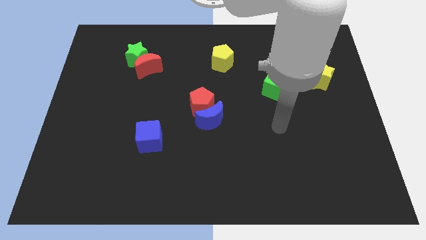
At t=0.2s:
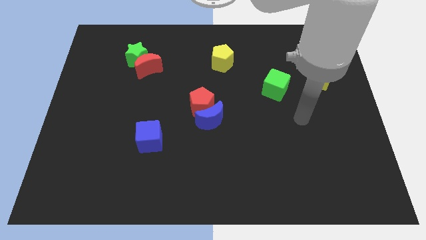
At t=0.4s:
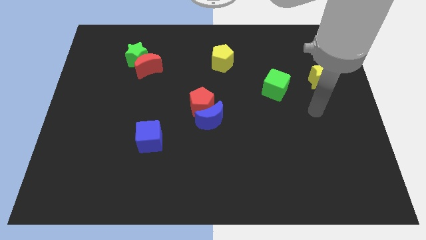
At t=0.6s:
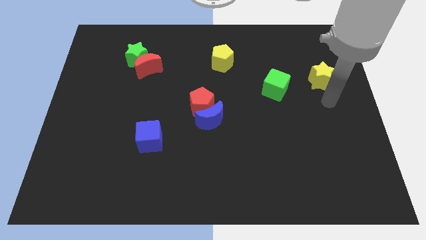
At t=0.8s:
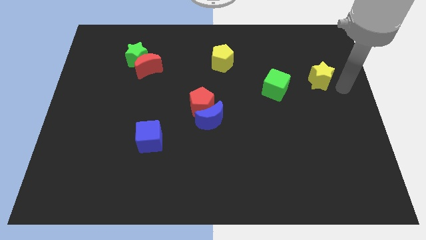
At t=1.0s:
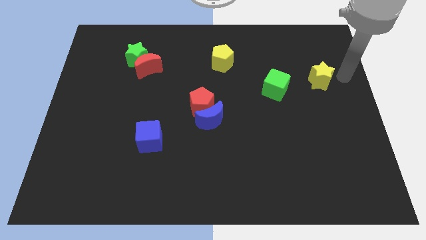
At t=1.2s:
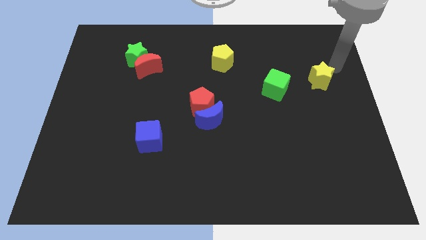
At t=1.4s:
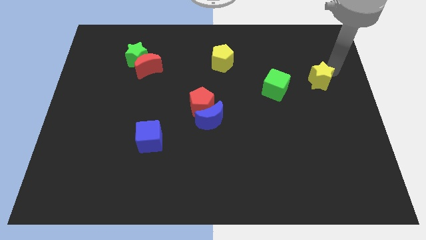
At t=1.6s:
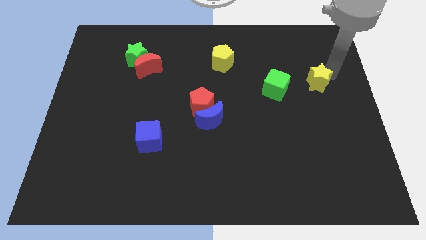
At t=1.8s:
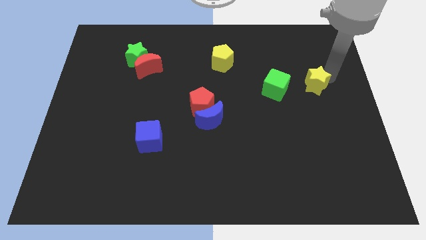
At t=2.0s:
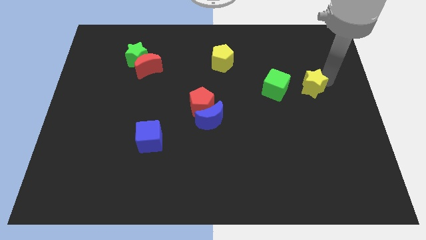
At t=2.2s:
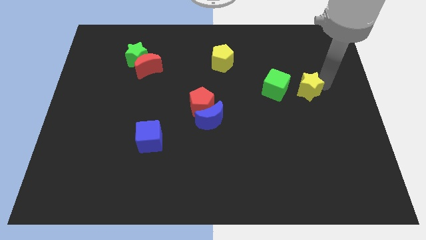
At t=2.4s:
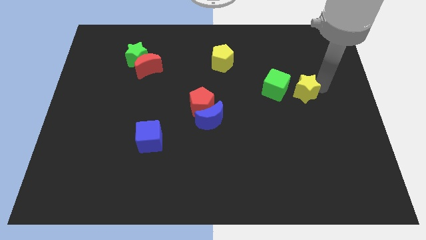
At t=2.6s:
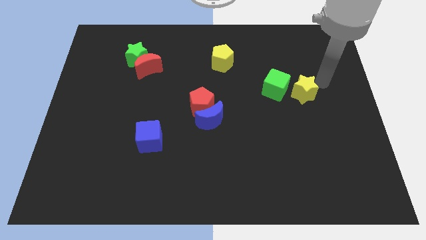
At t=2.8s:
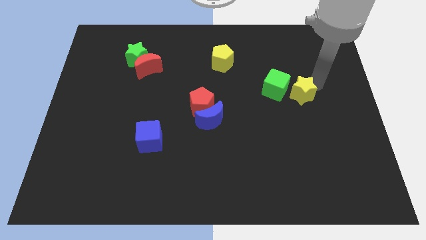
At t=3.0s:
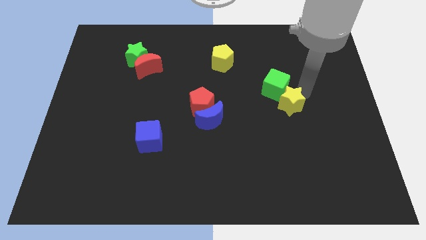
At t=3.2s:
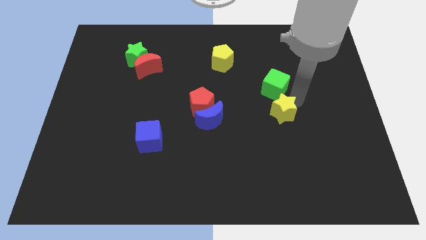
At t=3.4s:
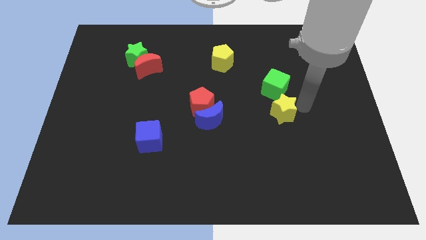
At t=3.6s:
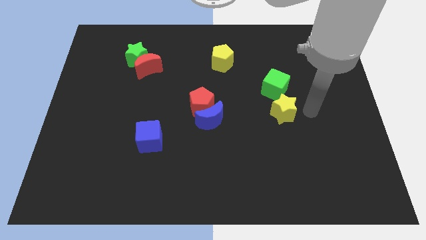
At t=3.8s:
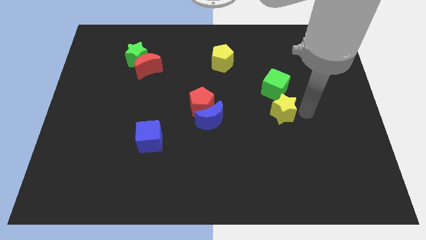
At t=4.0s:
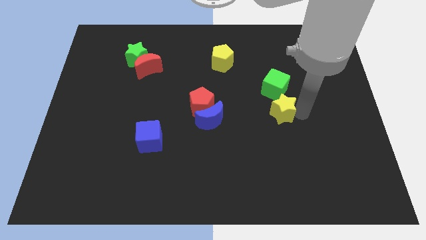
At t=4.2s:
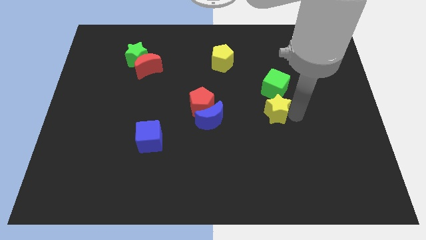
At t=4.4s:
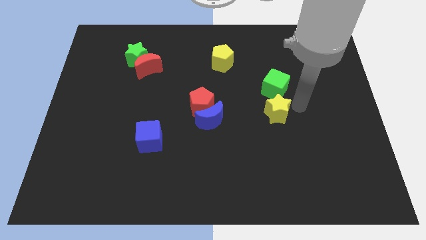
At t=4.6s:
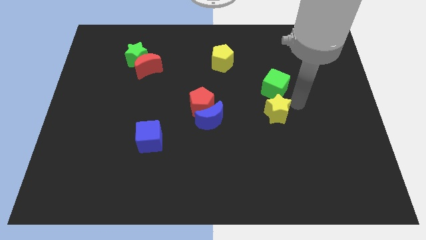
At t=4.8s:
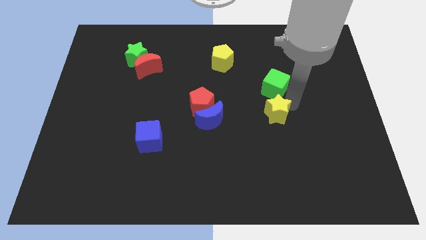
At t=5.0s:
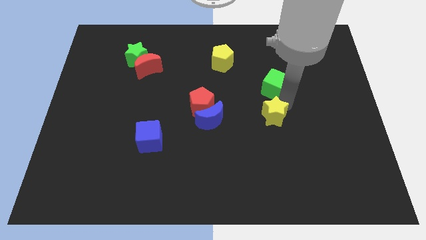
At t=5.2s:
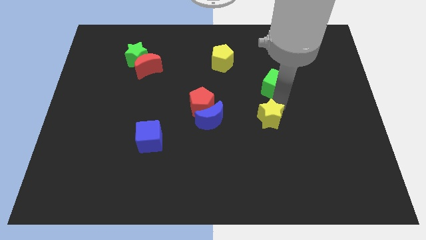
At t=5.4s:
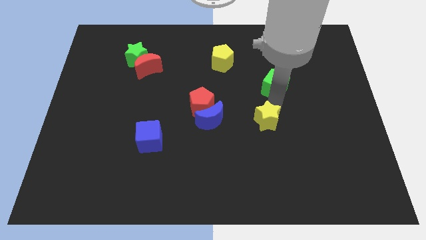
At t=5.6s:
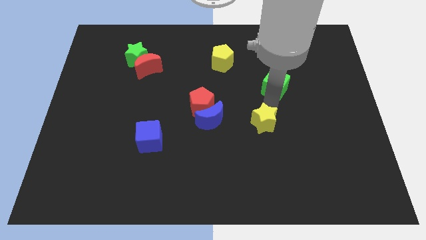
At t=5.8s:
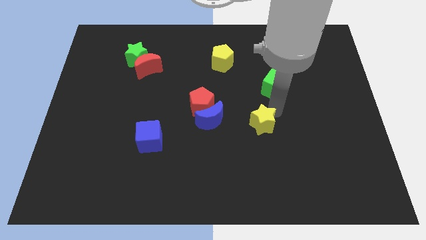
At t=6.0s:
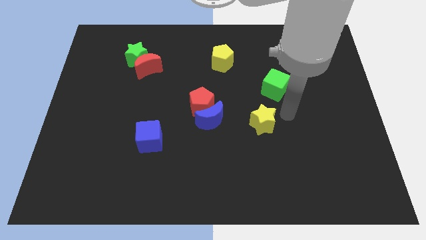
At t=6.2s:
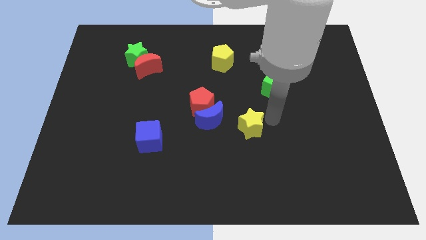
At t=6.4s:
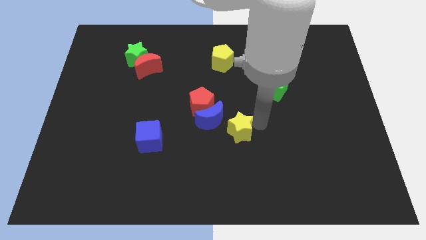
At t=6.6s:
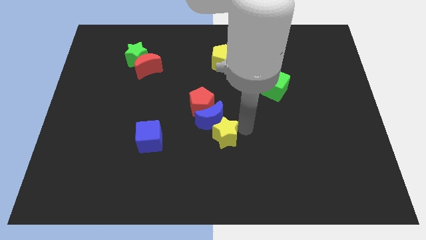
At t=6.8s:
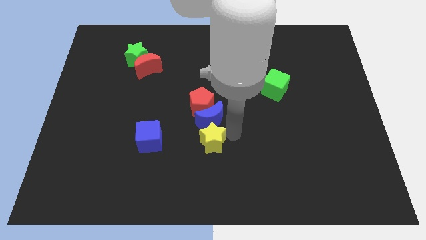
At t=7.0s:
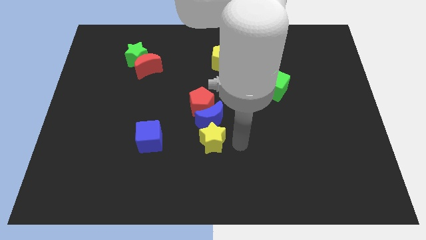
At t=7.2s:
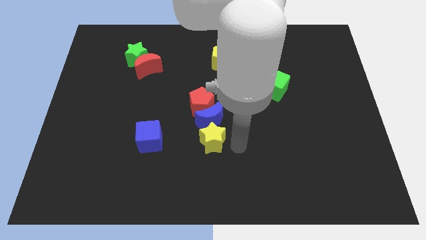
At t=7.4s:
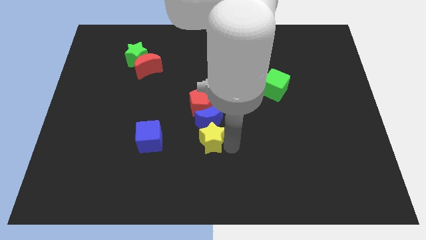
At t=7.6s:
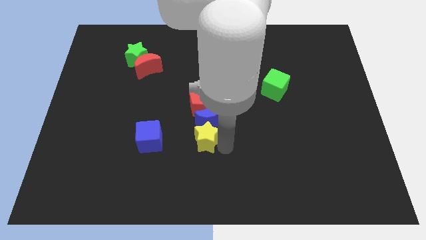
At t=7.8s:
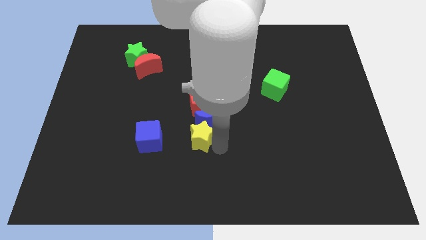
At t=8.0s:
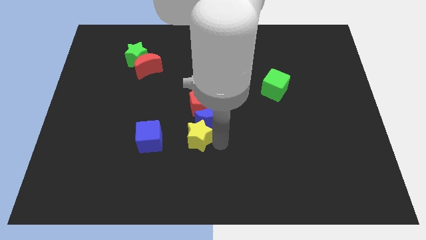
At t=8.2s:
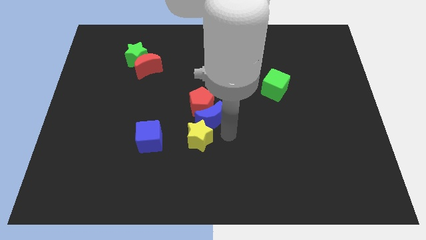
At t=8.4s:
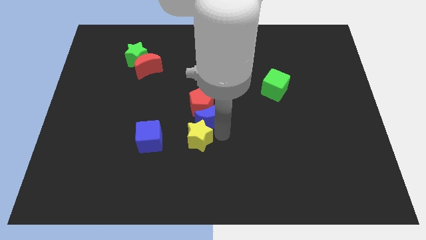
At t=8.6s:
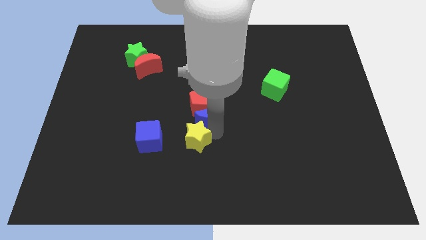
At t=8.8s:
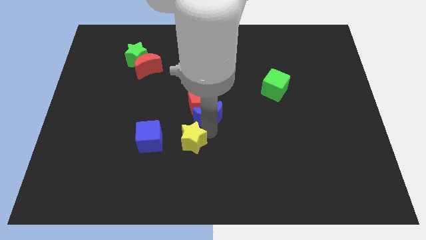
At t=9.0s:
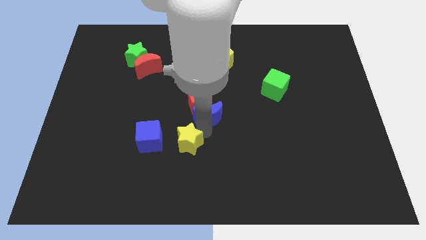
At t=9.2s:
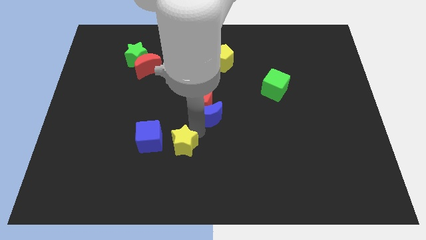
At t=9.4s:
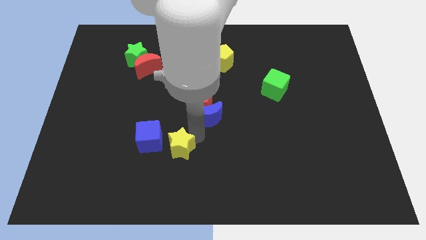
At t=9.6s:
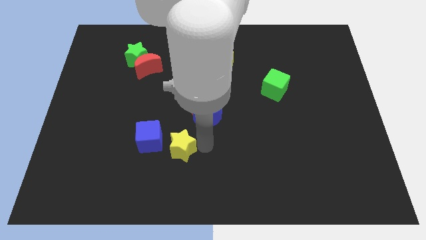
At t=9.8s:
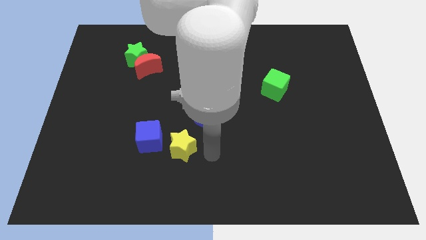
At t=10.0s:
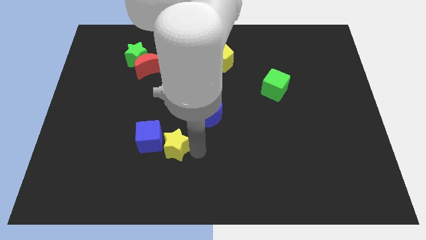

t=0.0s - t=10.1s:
move the yellow star towards the blue cube

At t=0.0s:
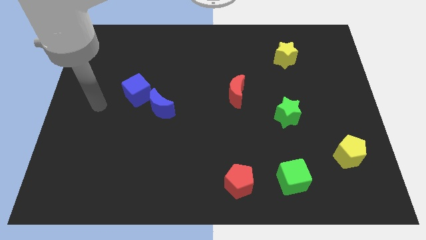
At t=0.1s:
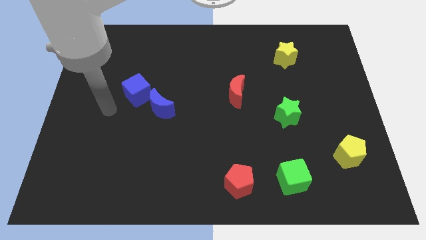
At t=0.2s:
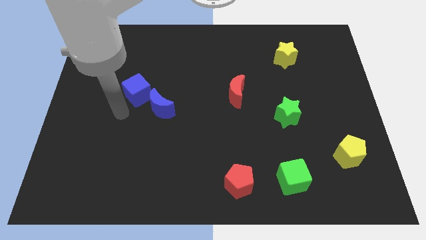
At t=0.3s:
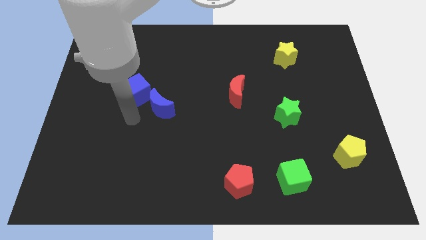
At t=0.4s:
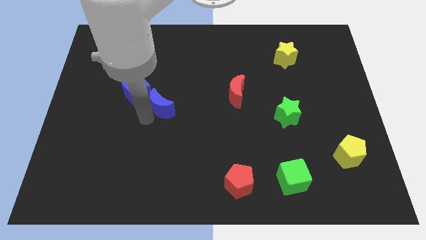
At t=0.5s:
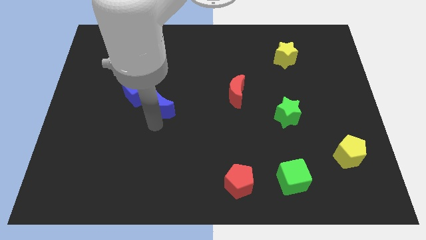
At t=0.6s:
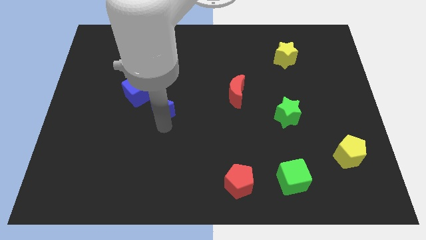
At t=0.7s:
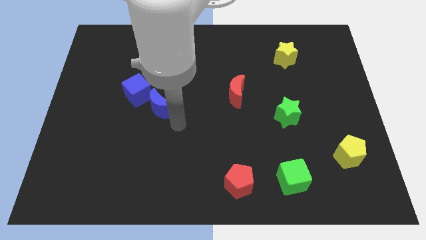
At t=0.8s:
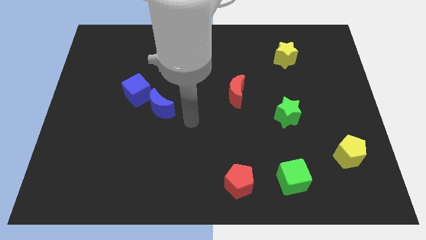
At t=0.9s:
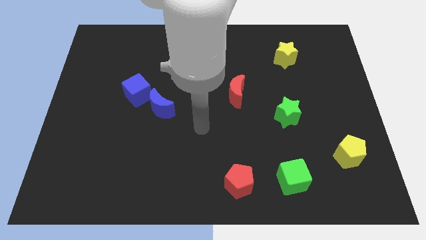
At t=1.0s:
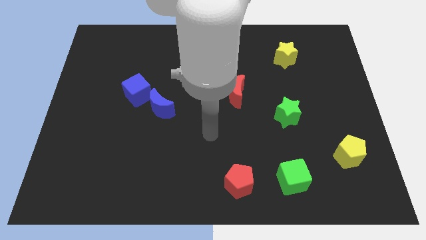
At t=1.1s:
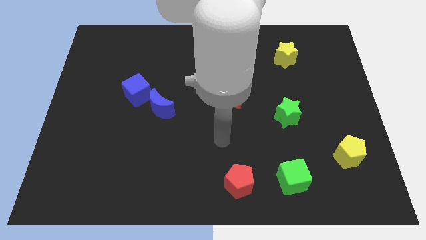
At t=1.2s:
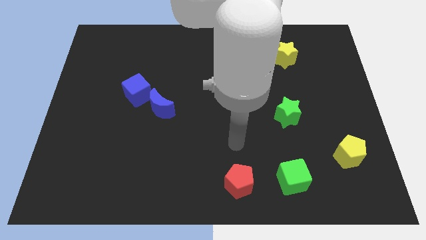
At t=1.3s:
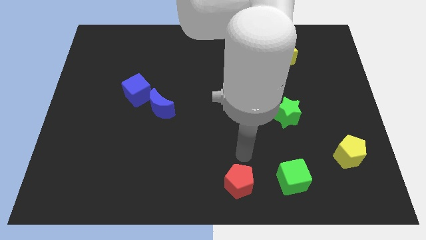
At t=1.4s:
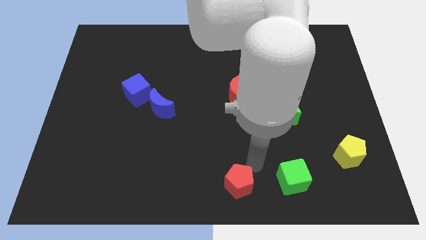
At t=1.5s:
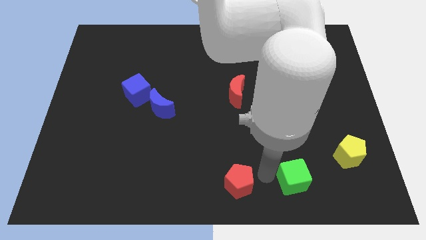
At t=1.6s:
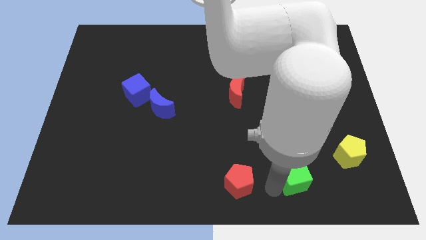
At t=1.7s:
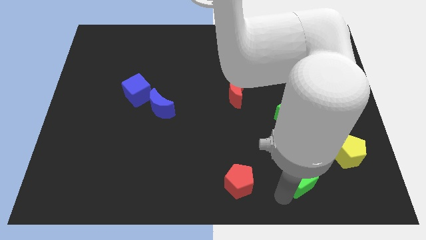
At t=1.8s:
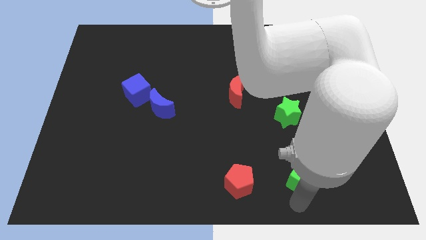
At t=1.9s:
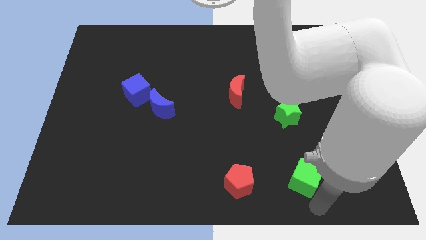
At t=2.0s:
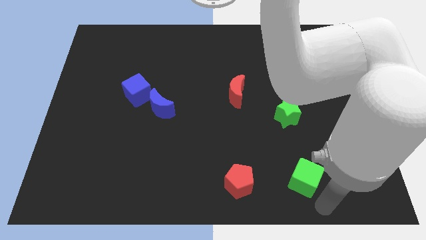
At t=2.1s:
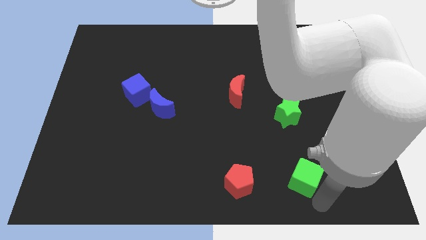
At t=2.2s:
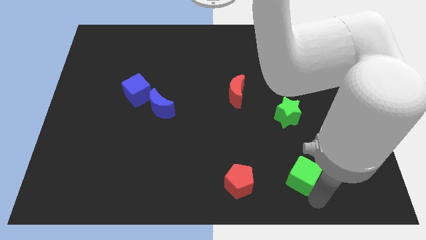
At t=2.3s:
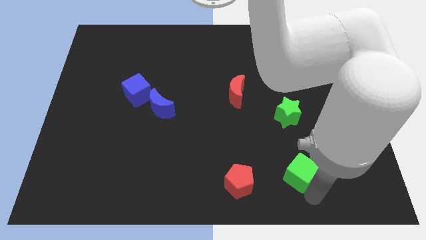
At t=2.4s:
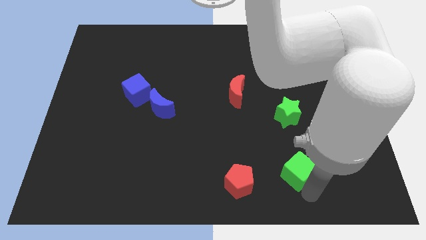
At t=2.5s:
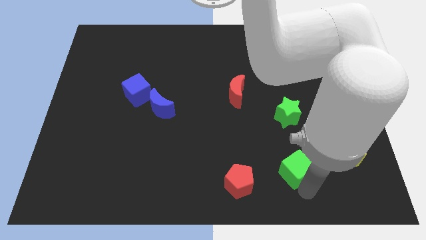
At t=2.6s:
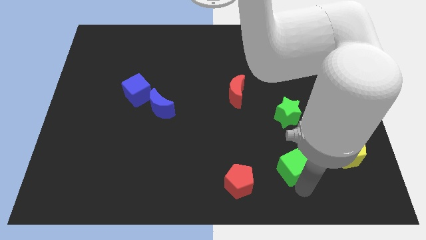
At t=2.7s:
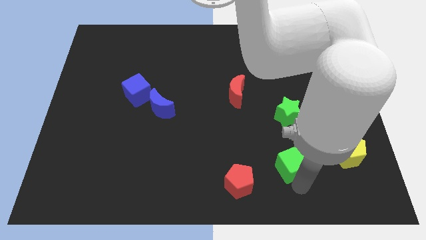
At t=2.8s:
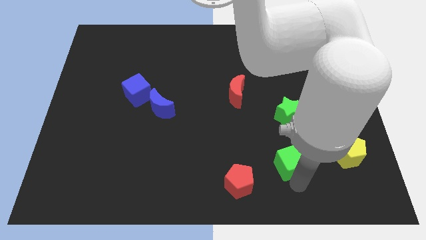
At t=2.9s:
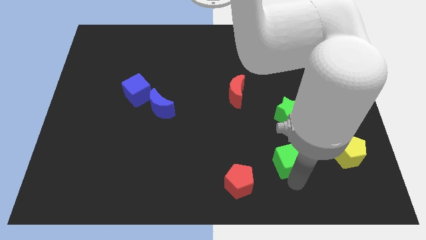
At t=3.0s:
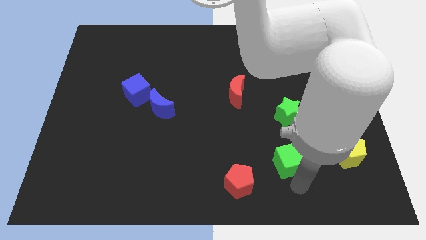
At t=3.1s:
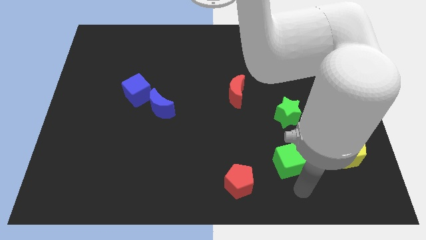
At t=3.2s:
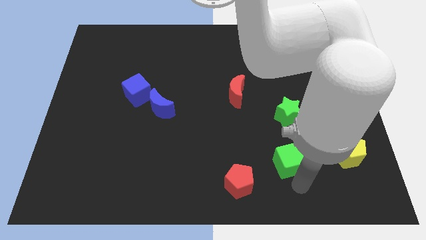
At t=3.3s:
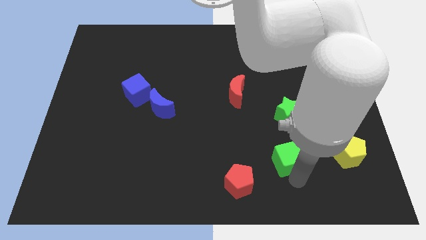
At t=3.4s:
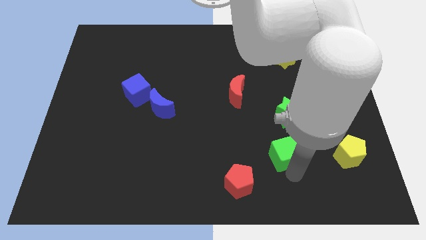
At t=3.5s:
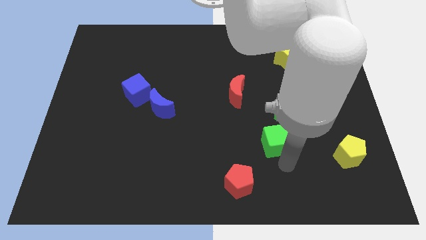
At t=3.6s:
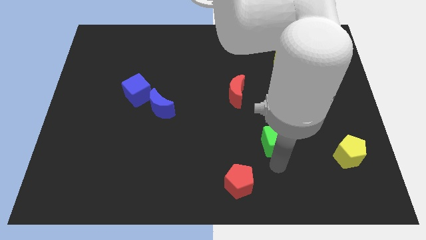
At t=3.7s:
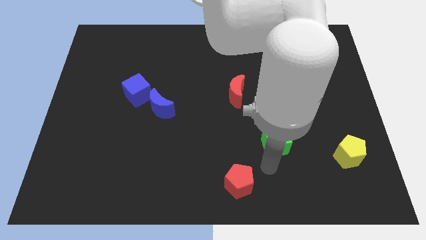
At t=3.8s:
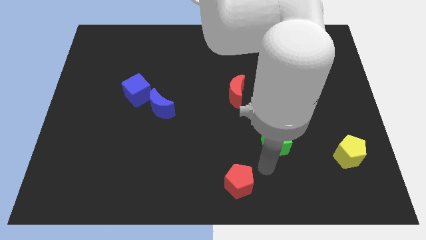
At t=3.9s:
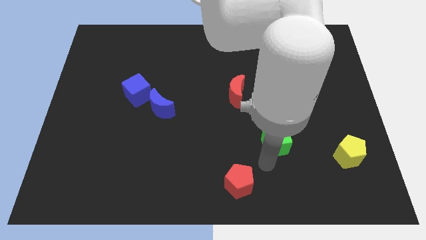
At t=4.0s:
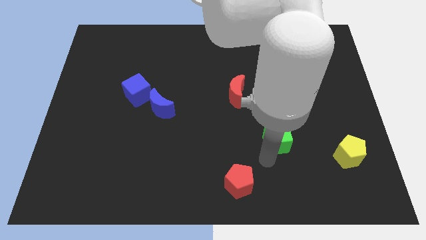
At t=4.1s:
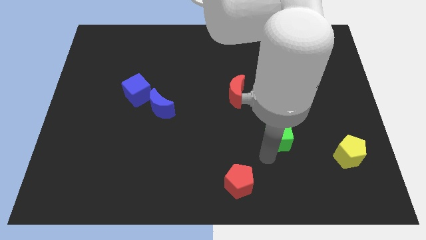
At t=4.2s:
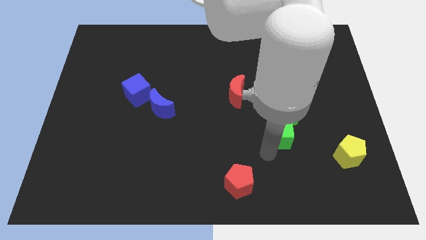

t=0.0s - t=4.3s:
slide the green cube next to the green star
